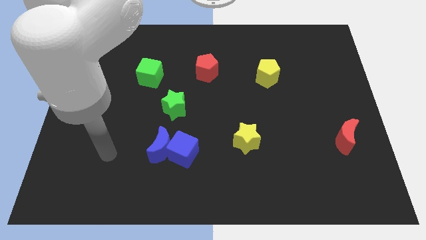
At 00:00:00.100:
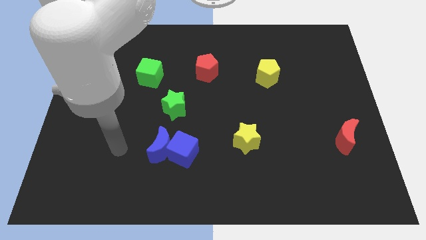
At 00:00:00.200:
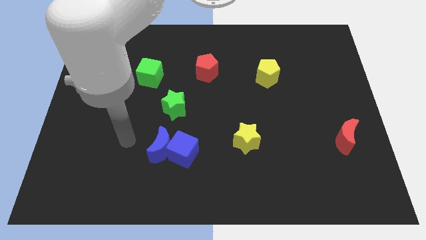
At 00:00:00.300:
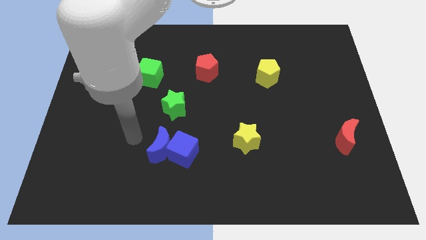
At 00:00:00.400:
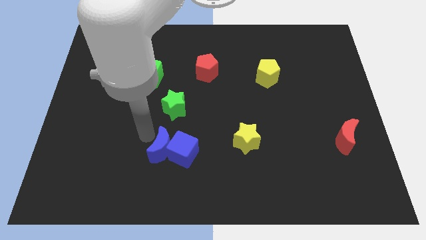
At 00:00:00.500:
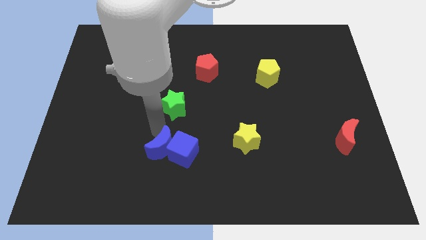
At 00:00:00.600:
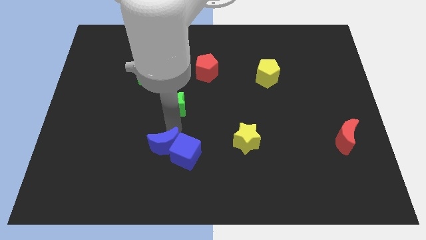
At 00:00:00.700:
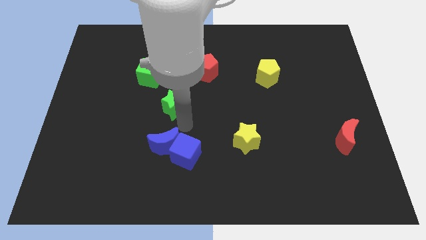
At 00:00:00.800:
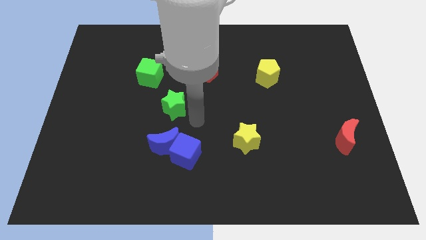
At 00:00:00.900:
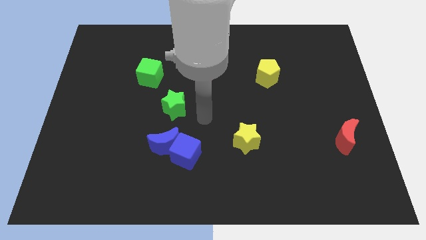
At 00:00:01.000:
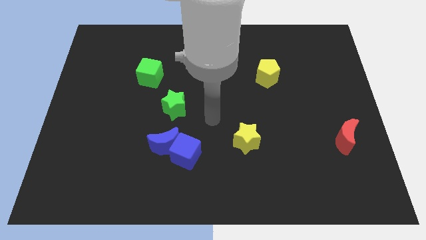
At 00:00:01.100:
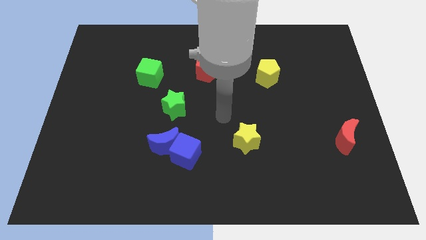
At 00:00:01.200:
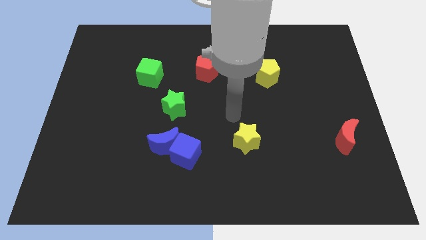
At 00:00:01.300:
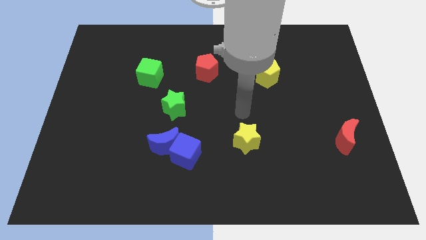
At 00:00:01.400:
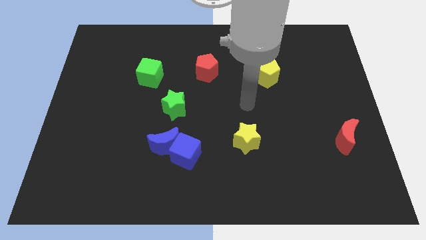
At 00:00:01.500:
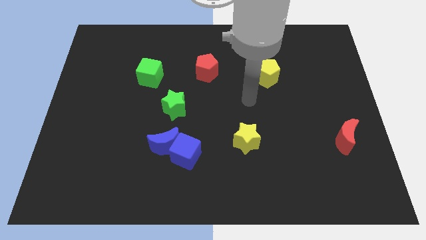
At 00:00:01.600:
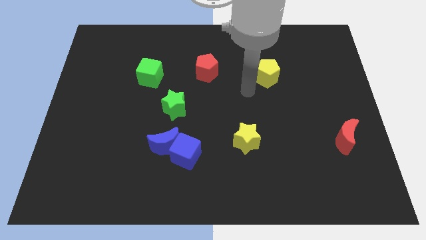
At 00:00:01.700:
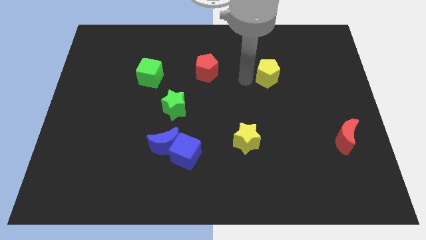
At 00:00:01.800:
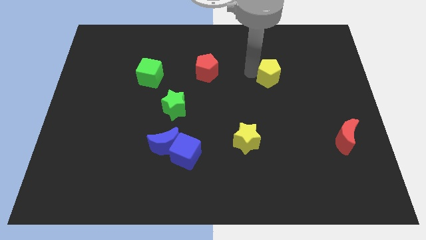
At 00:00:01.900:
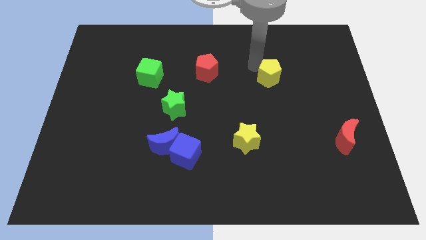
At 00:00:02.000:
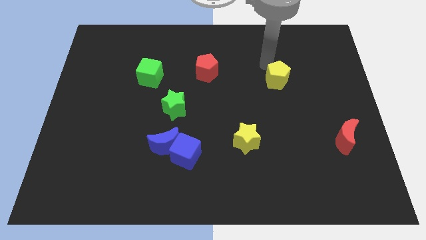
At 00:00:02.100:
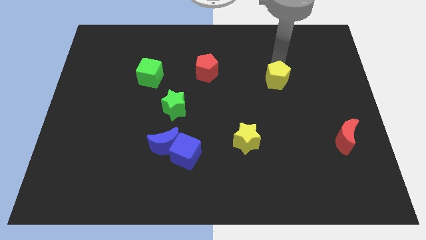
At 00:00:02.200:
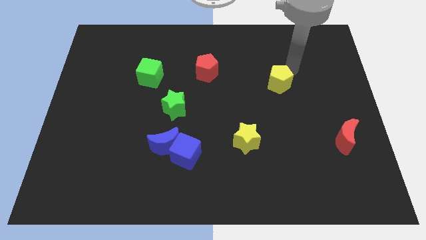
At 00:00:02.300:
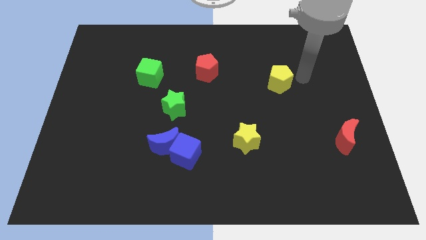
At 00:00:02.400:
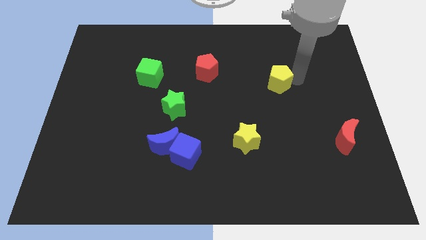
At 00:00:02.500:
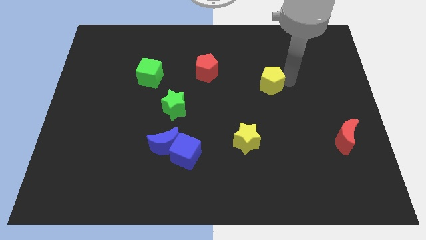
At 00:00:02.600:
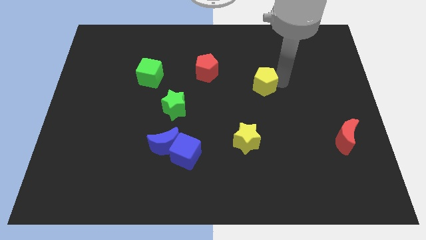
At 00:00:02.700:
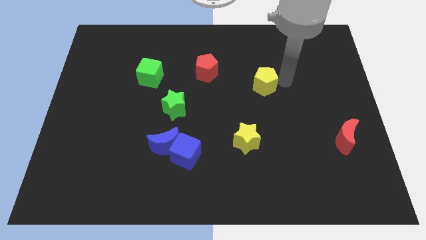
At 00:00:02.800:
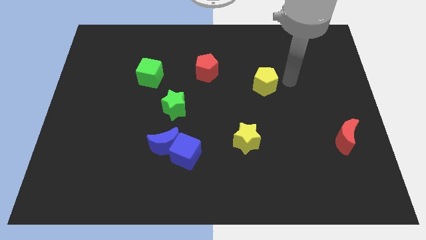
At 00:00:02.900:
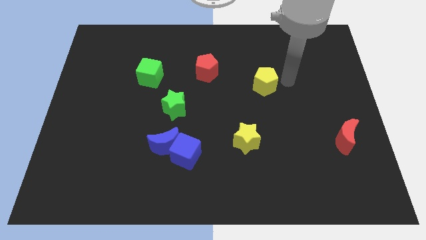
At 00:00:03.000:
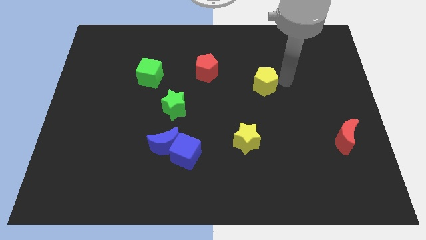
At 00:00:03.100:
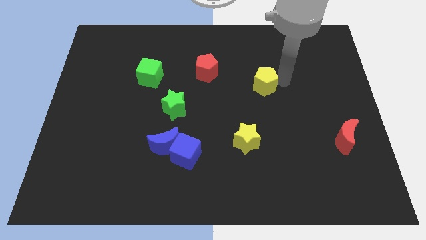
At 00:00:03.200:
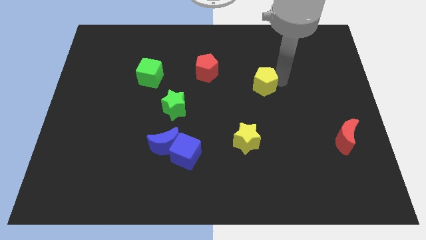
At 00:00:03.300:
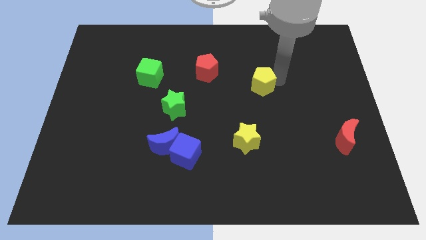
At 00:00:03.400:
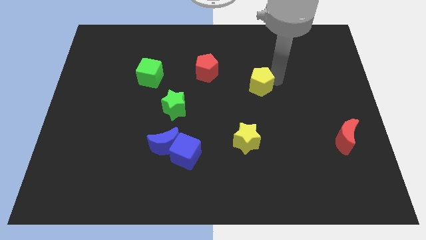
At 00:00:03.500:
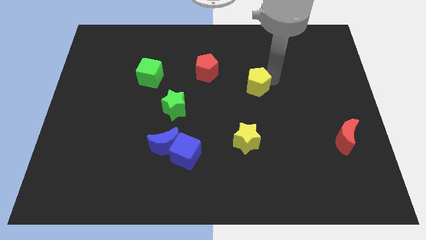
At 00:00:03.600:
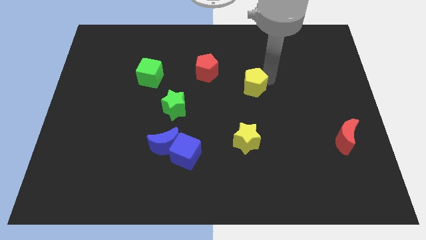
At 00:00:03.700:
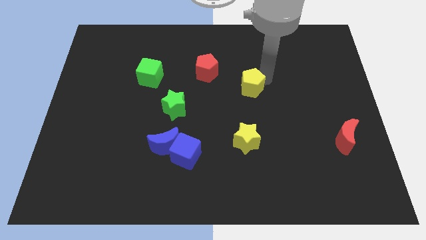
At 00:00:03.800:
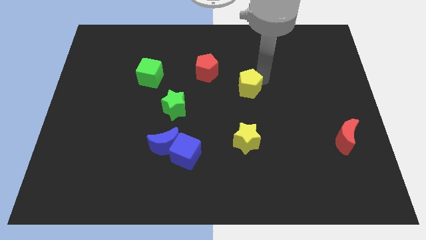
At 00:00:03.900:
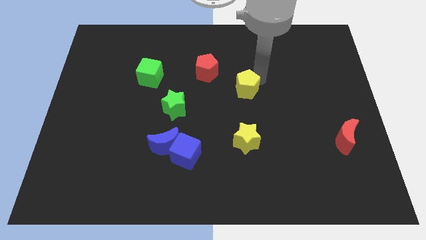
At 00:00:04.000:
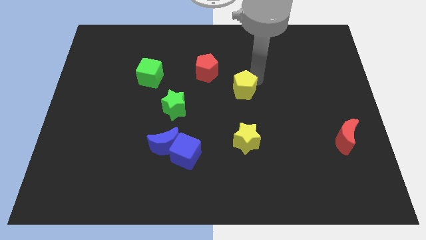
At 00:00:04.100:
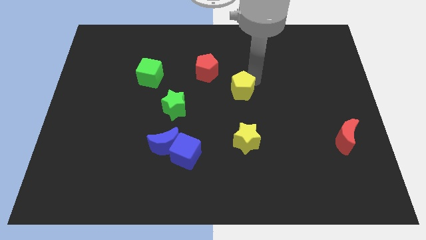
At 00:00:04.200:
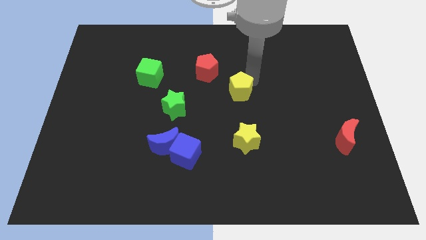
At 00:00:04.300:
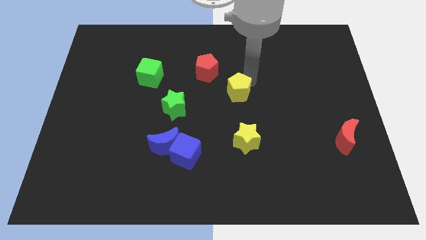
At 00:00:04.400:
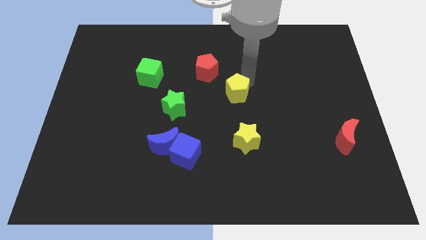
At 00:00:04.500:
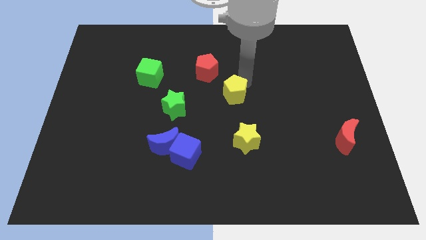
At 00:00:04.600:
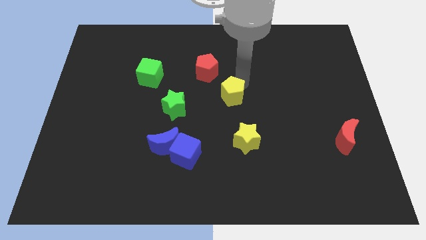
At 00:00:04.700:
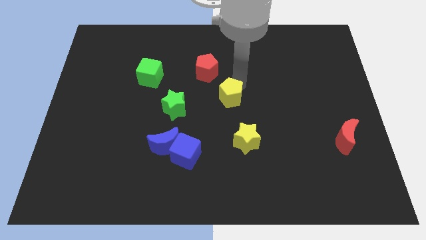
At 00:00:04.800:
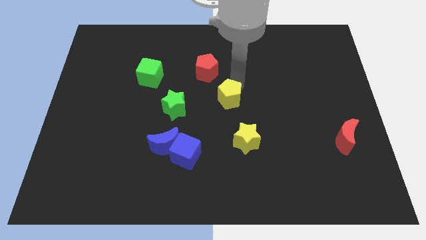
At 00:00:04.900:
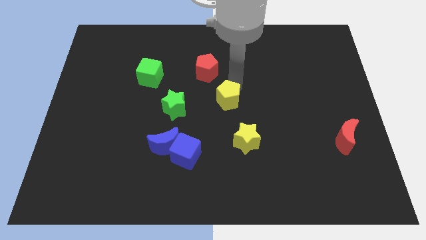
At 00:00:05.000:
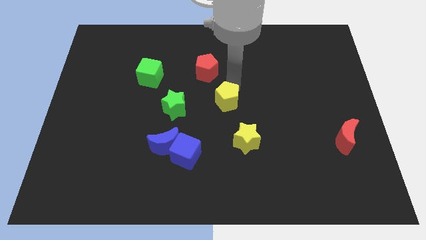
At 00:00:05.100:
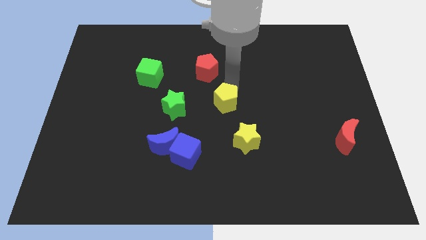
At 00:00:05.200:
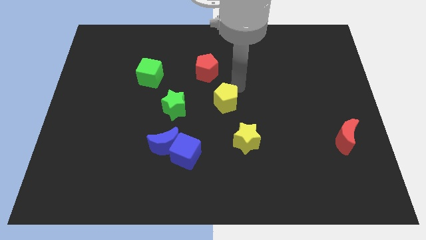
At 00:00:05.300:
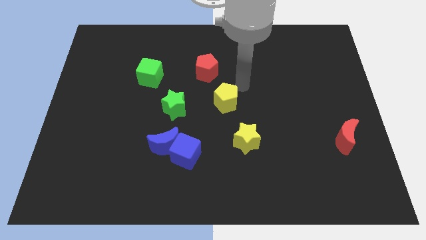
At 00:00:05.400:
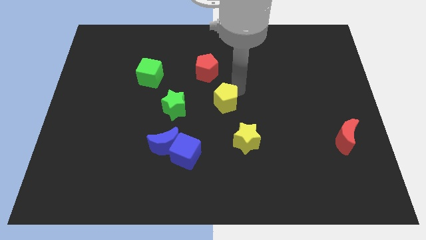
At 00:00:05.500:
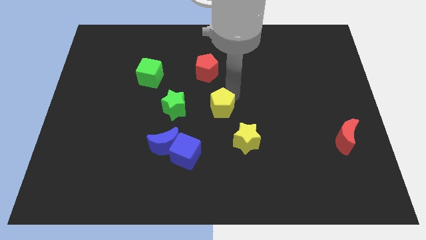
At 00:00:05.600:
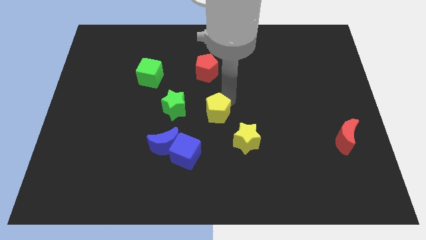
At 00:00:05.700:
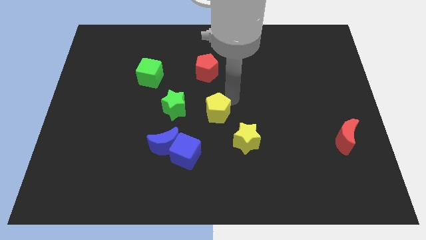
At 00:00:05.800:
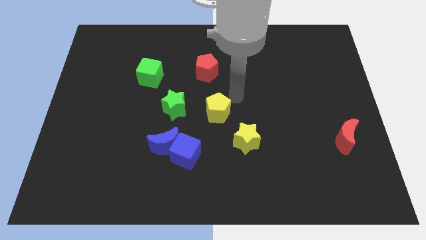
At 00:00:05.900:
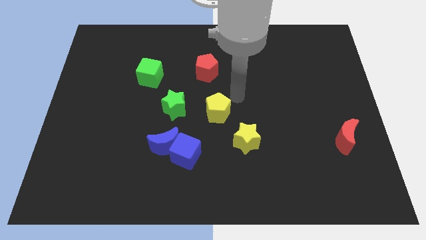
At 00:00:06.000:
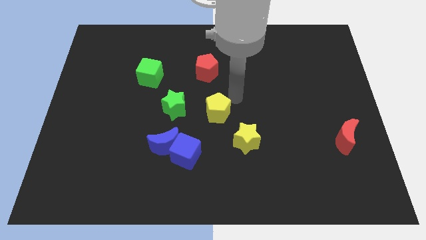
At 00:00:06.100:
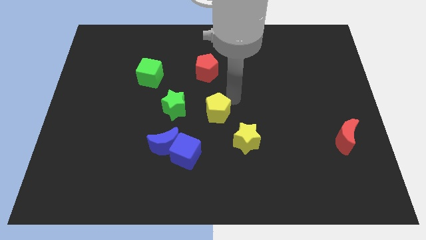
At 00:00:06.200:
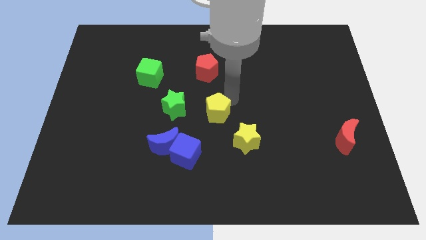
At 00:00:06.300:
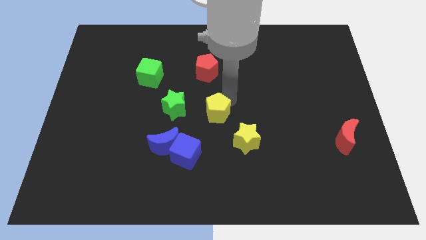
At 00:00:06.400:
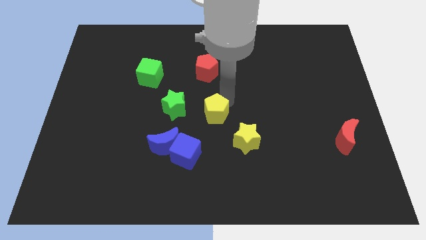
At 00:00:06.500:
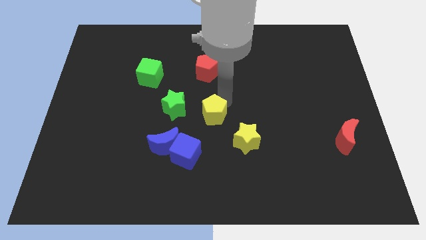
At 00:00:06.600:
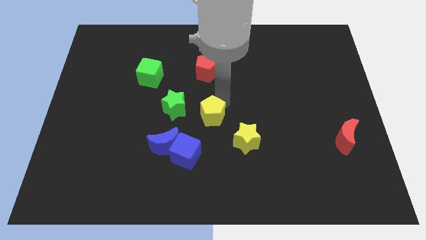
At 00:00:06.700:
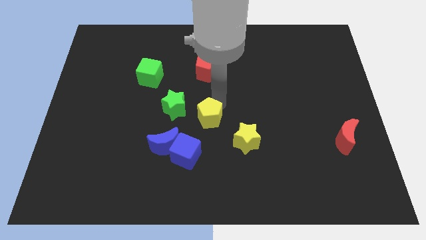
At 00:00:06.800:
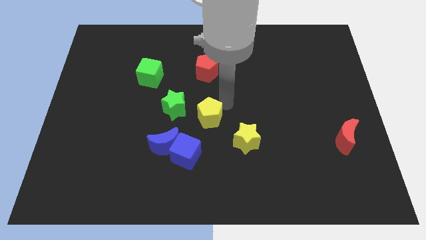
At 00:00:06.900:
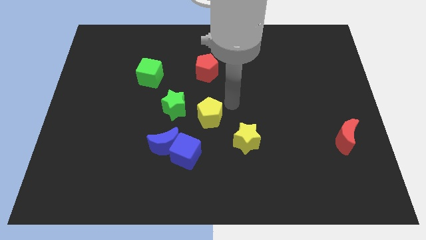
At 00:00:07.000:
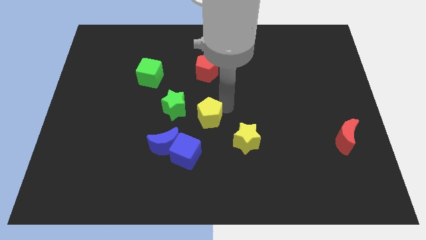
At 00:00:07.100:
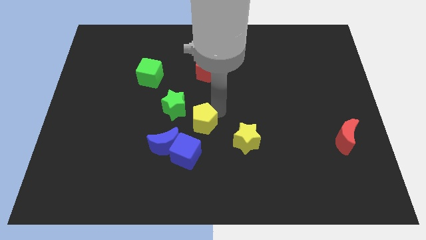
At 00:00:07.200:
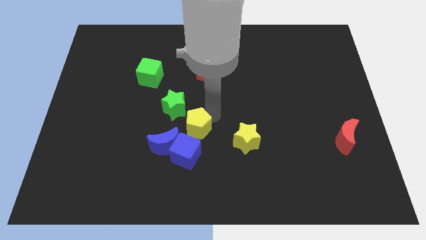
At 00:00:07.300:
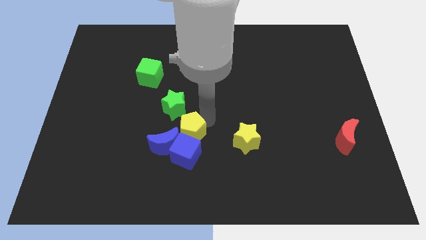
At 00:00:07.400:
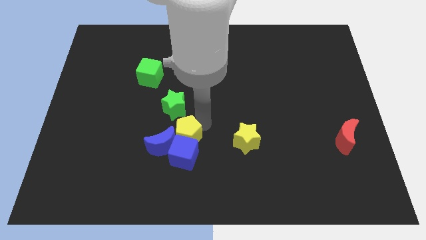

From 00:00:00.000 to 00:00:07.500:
put the yellow pentagon to the blue moon
